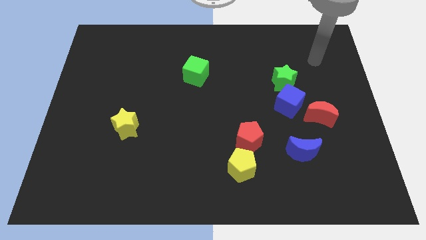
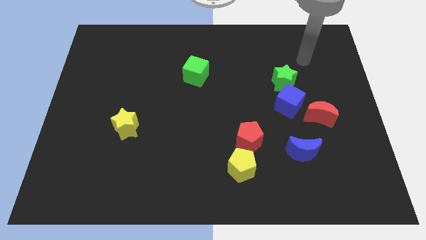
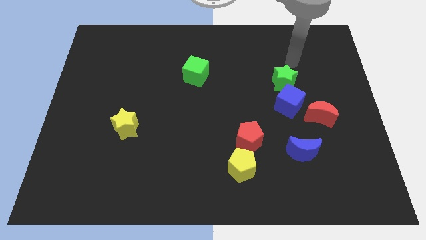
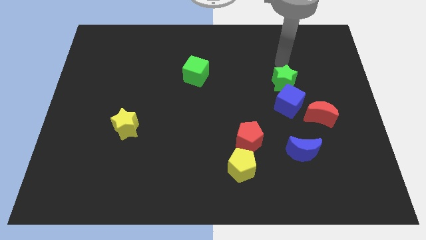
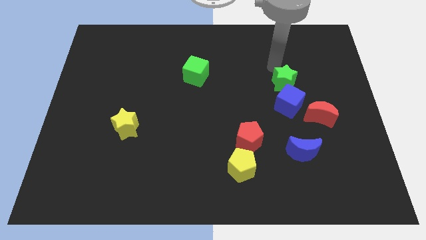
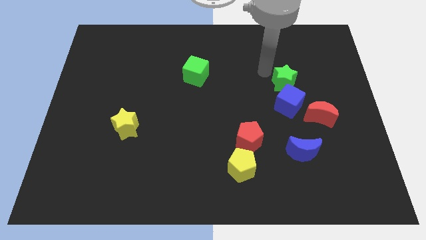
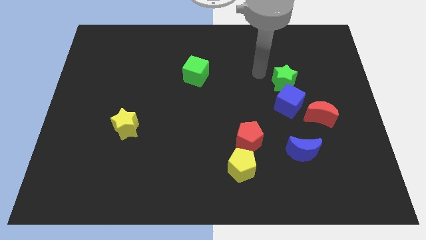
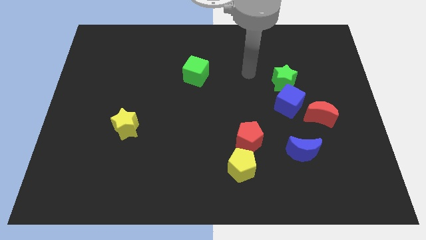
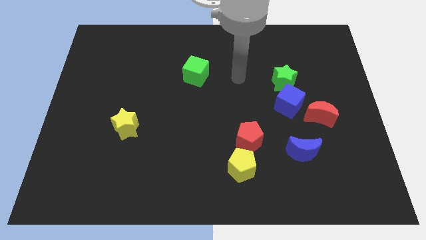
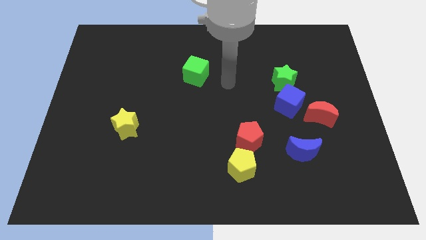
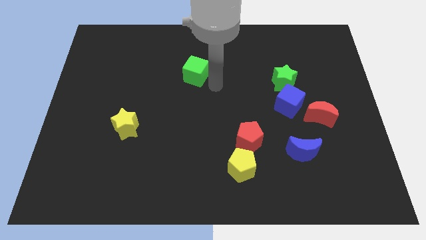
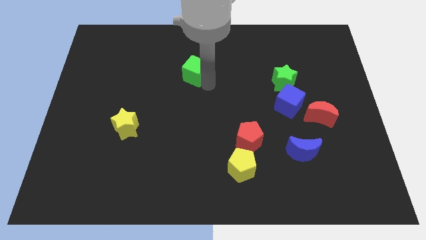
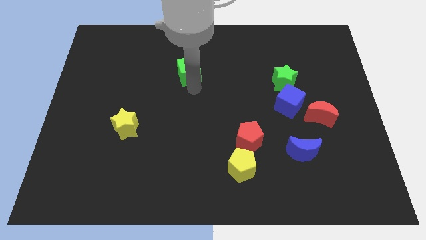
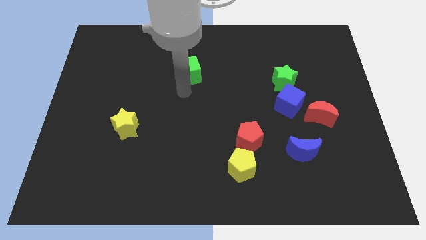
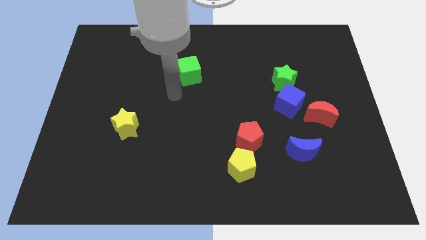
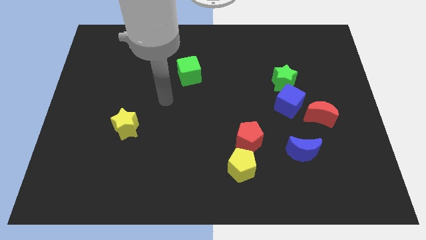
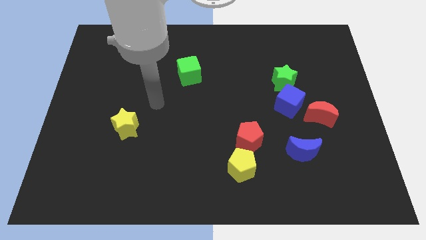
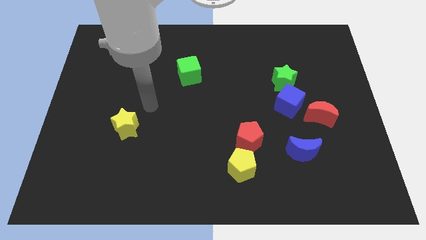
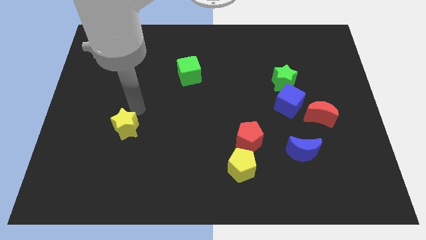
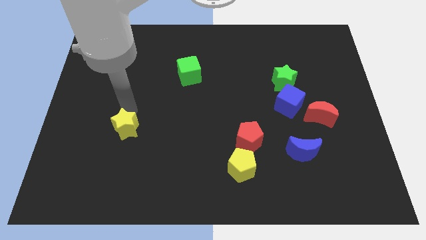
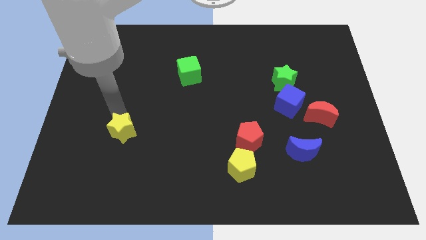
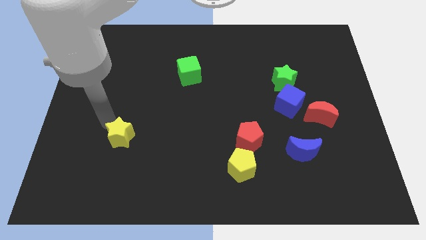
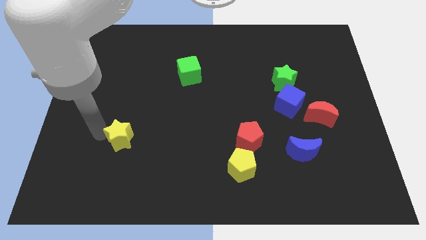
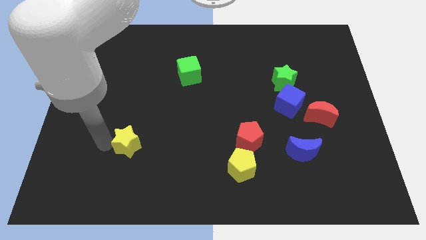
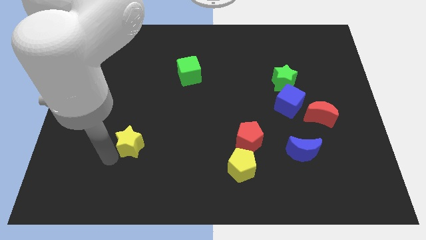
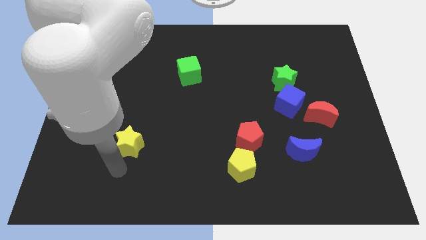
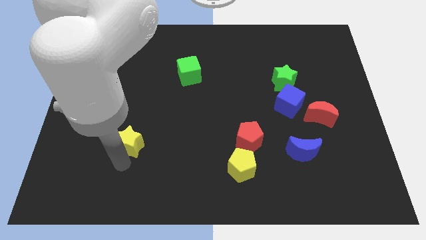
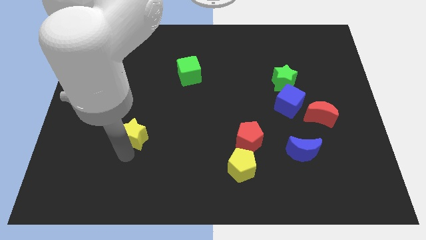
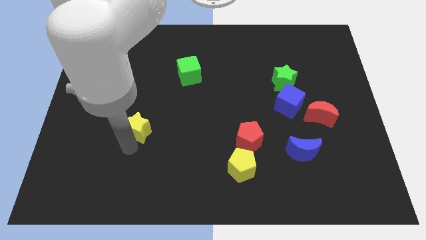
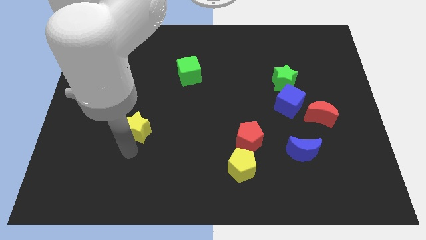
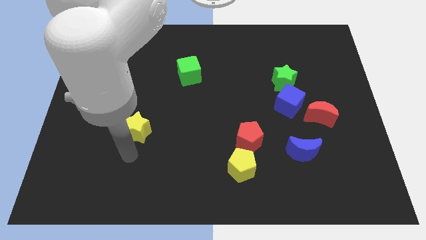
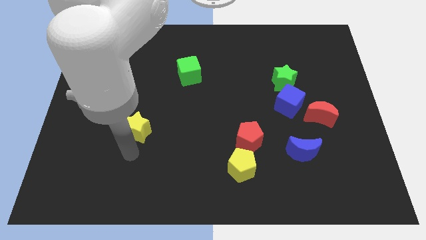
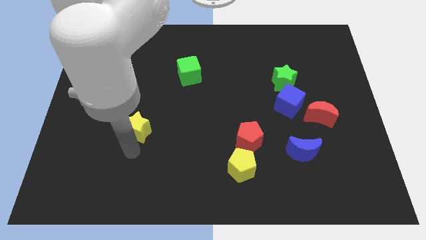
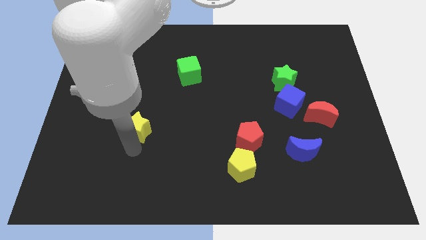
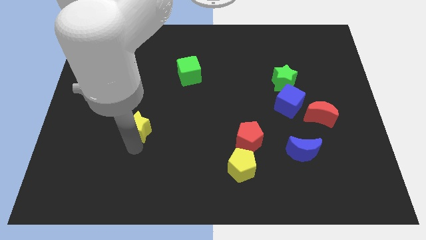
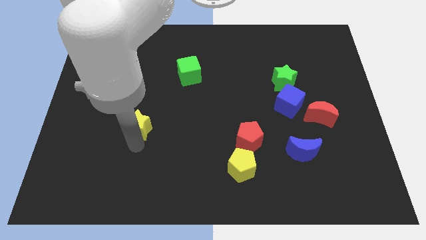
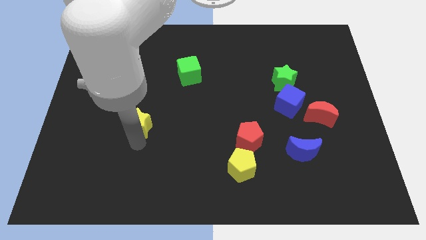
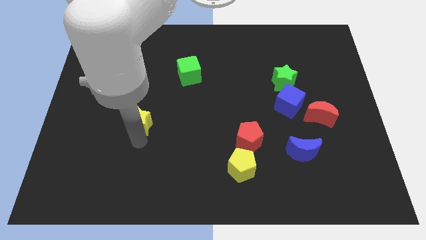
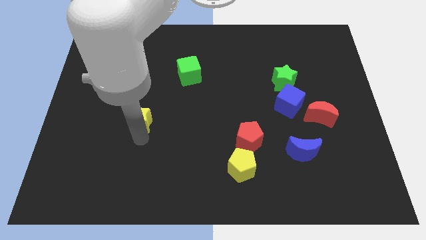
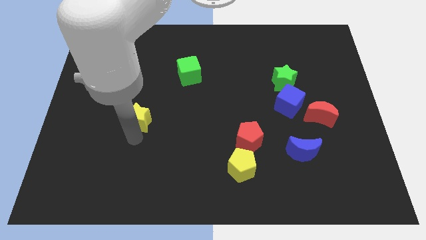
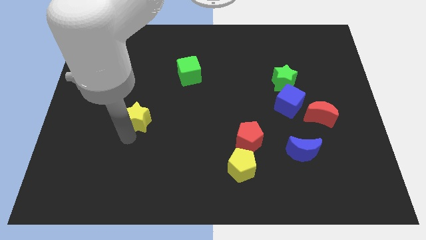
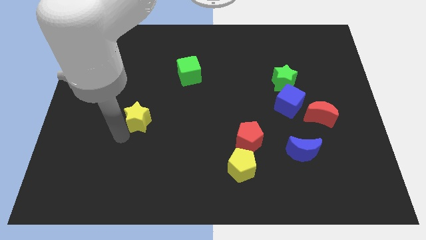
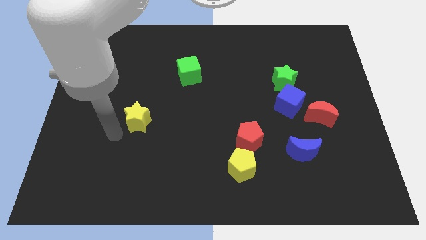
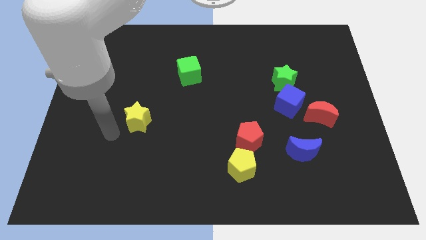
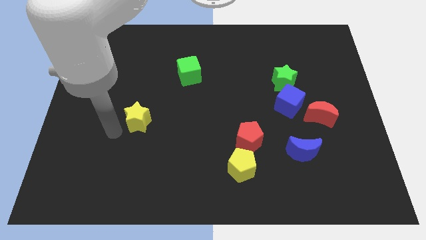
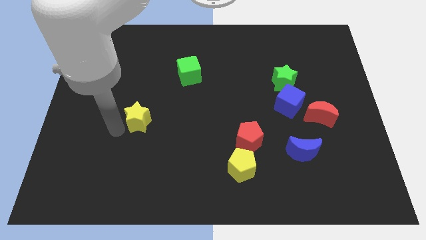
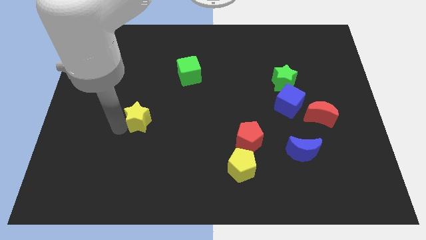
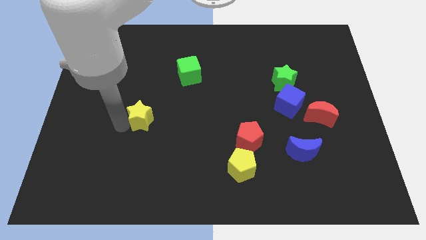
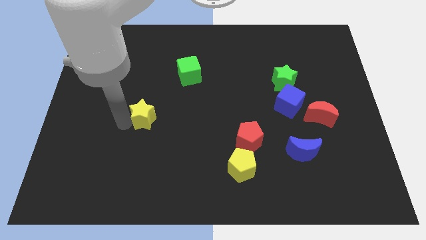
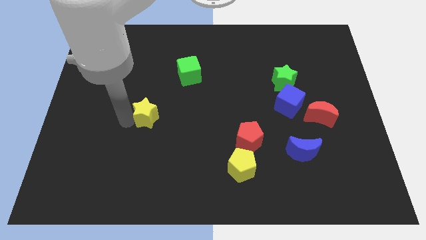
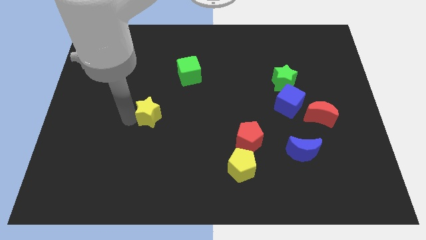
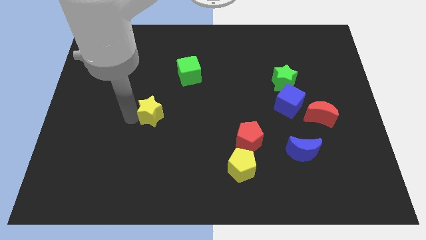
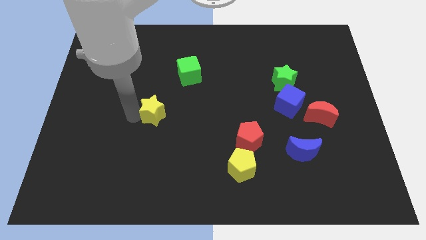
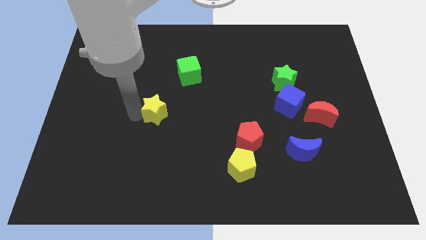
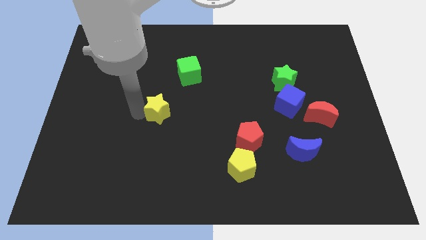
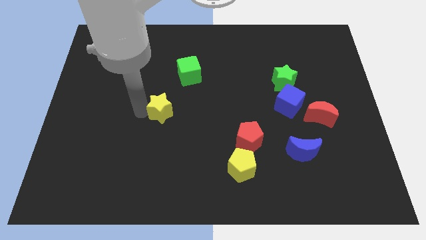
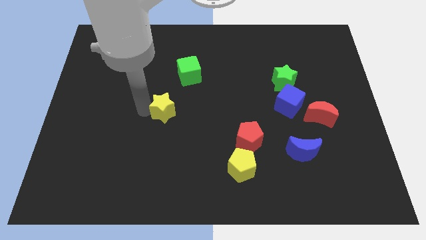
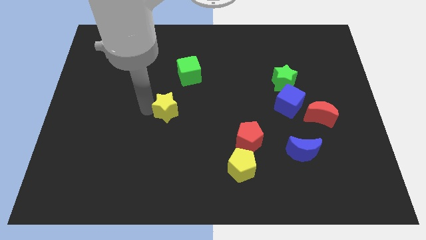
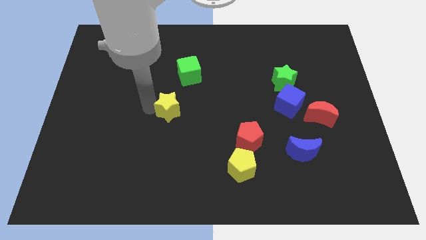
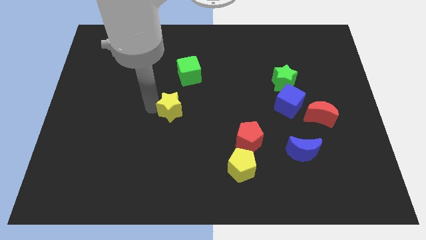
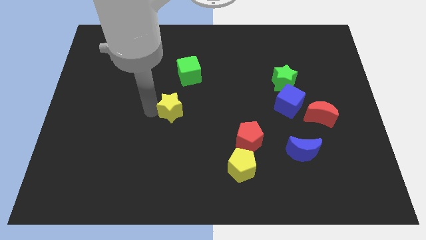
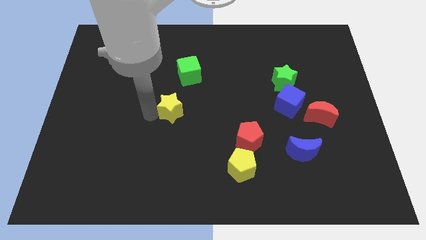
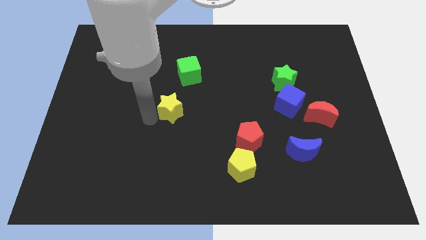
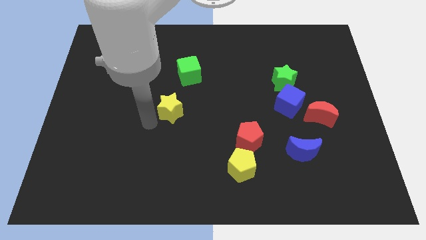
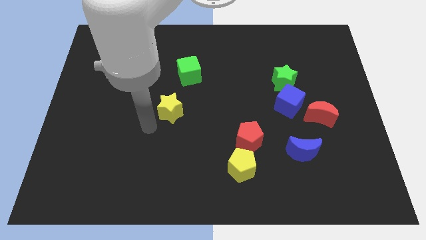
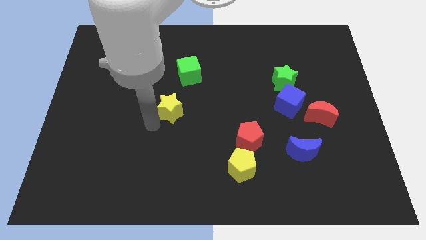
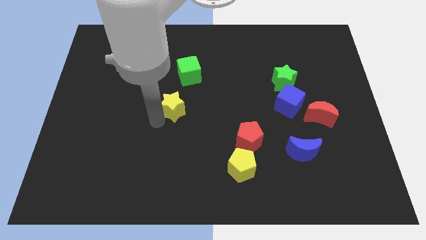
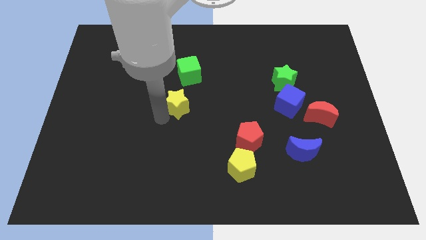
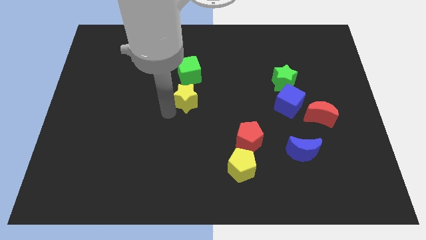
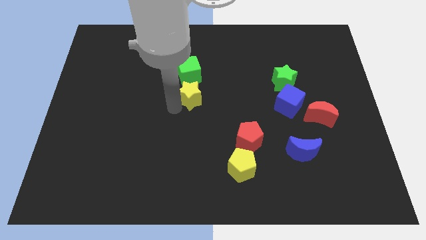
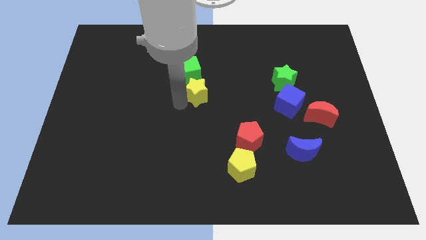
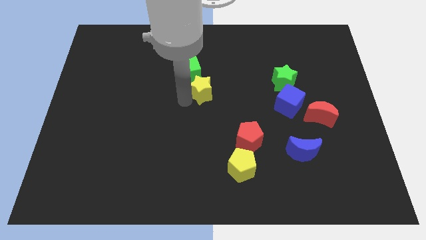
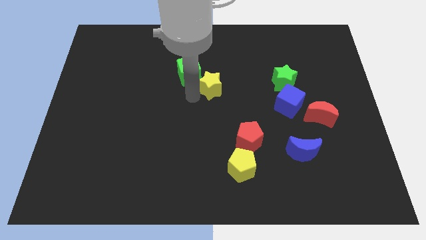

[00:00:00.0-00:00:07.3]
push the yellow star diagonally upwards and to the right

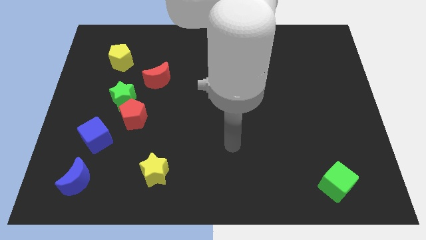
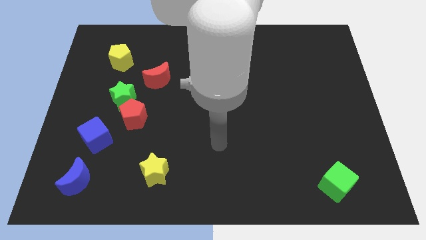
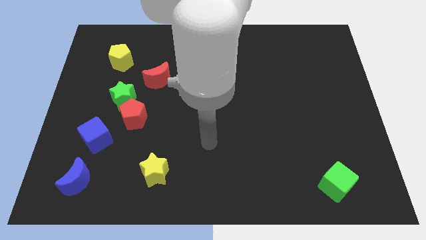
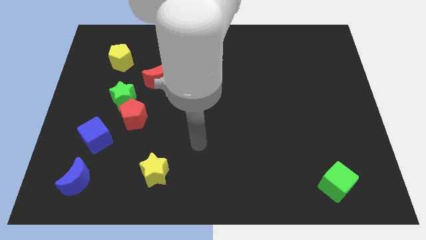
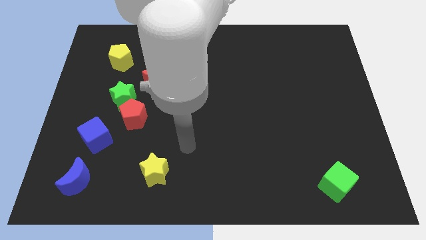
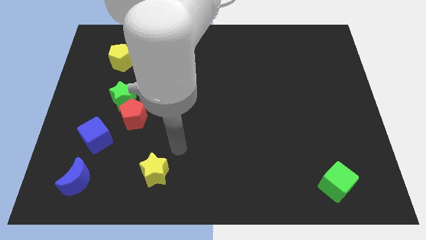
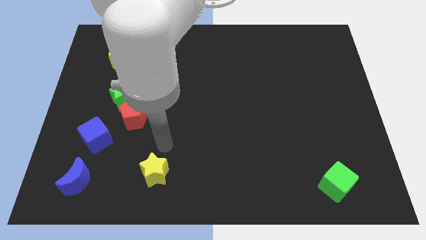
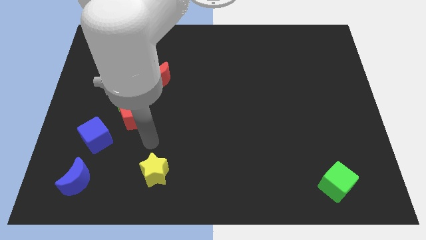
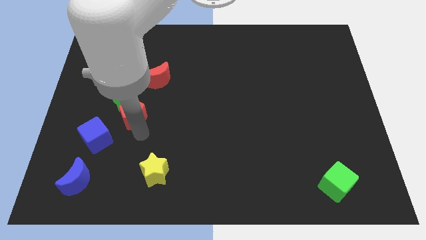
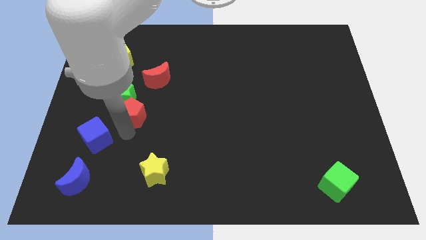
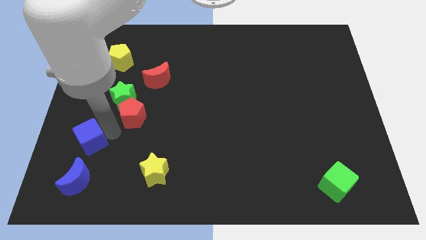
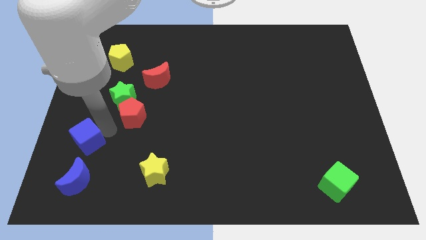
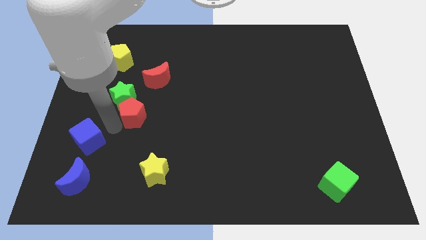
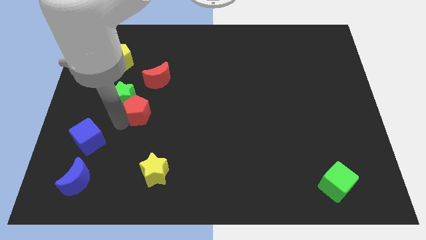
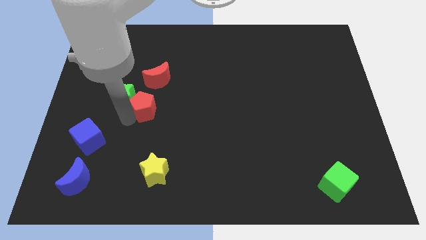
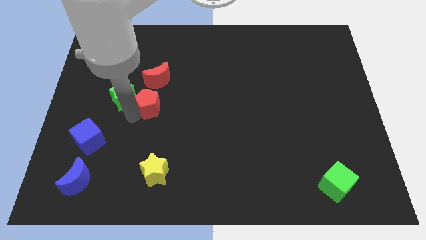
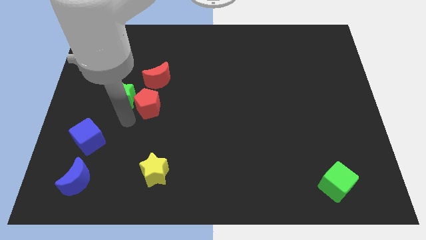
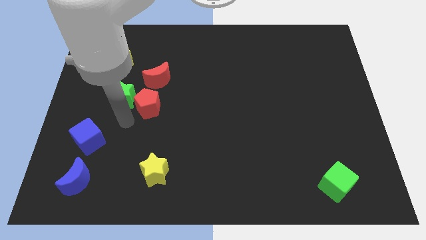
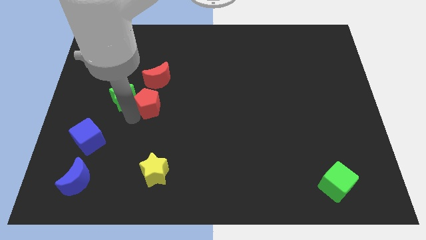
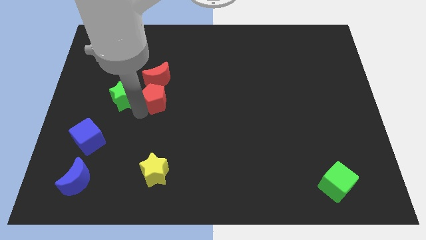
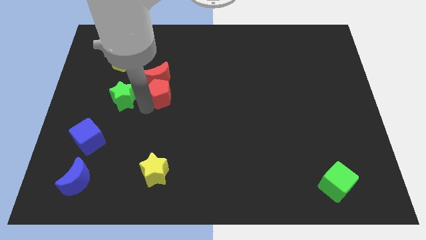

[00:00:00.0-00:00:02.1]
move the red pentagon diagonally up and to the right somewhat
